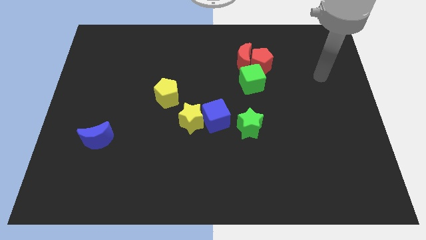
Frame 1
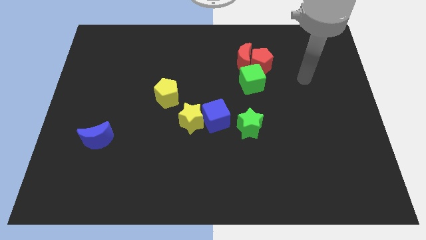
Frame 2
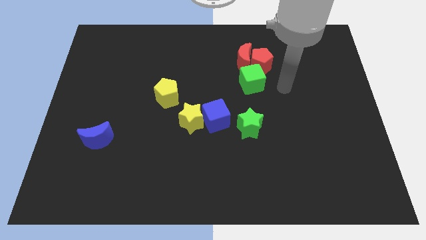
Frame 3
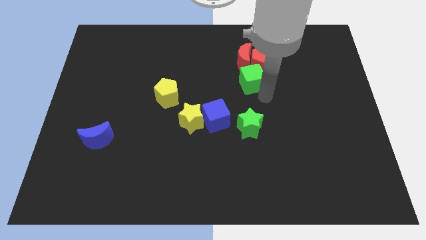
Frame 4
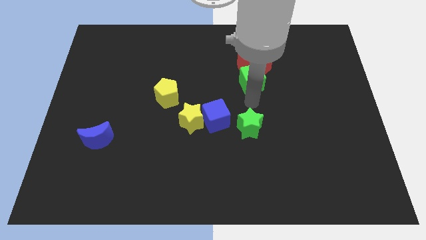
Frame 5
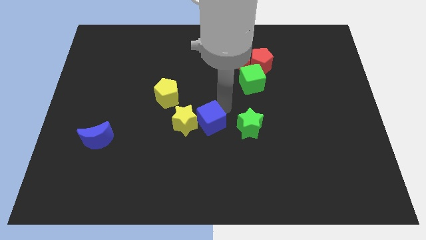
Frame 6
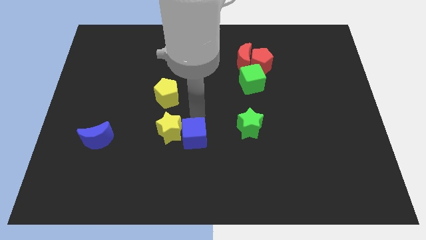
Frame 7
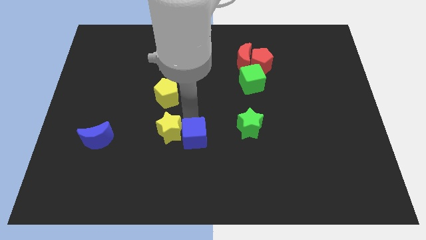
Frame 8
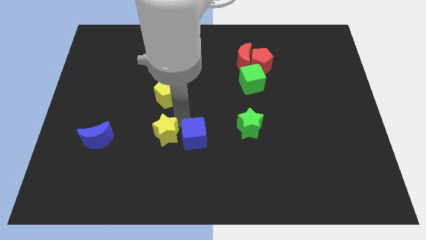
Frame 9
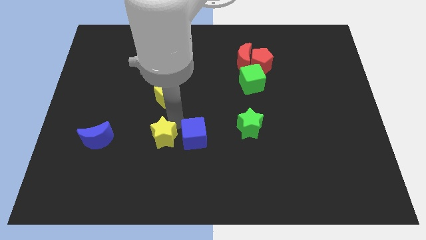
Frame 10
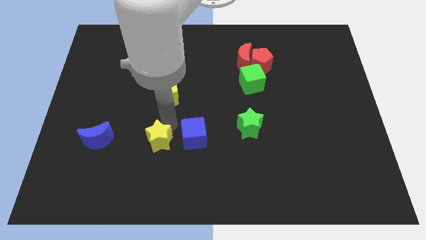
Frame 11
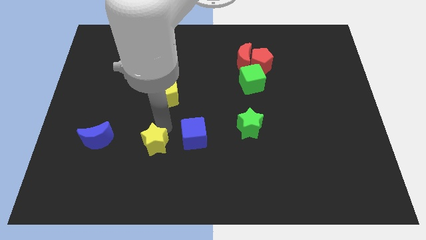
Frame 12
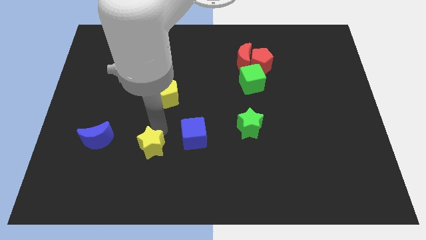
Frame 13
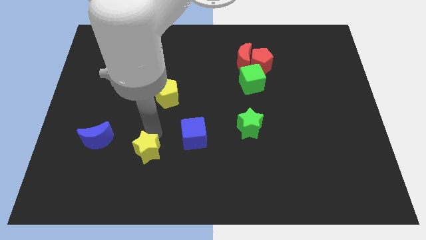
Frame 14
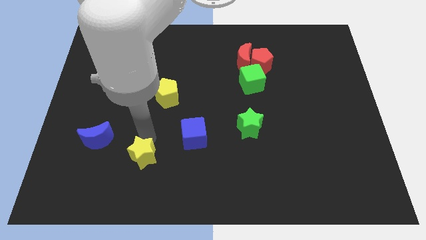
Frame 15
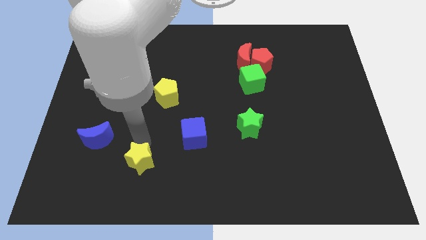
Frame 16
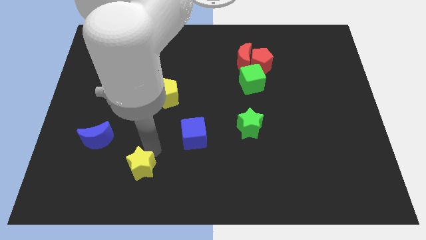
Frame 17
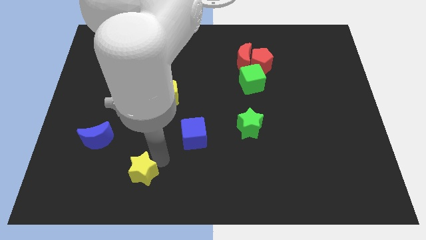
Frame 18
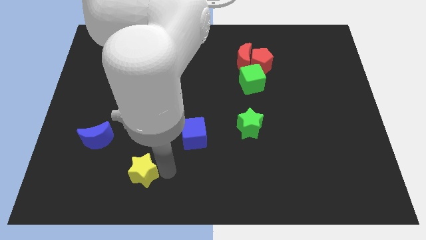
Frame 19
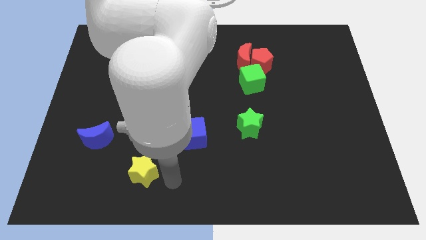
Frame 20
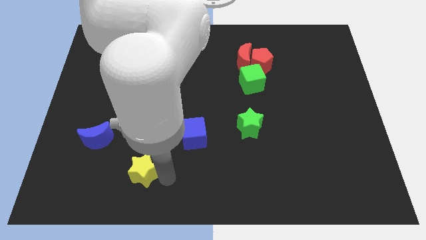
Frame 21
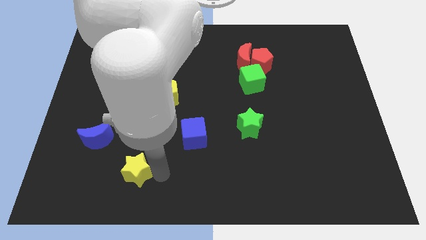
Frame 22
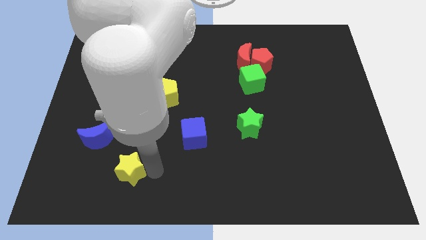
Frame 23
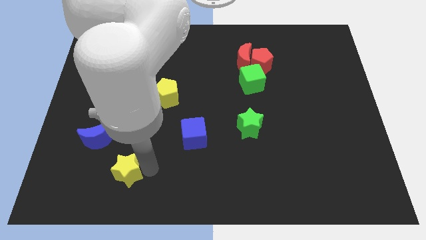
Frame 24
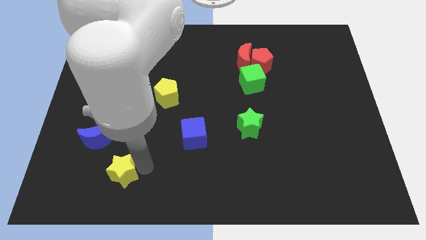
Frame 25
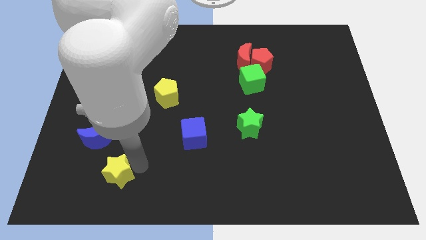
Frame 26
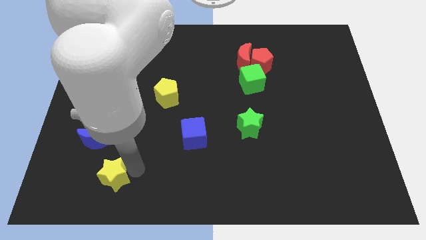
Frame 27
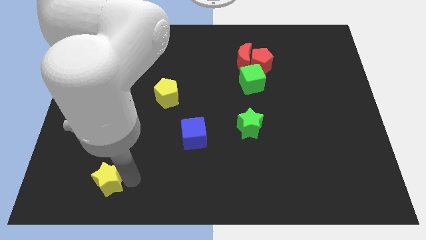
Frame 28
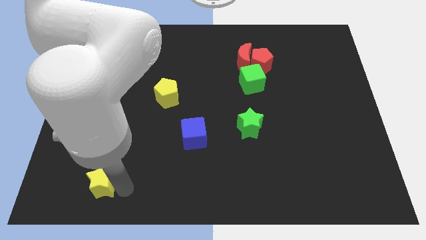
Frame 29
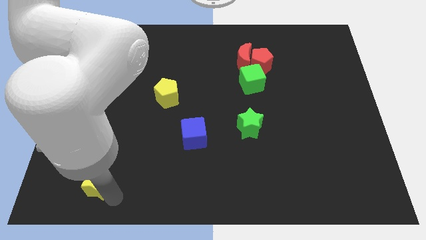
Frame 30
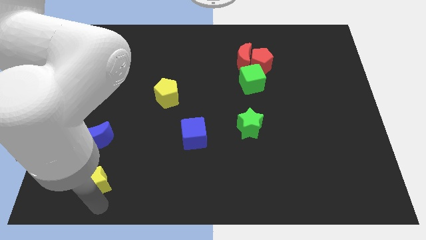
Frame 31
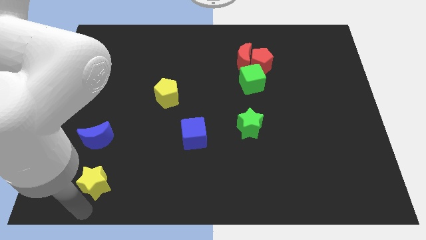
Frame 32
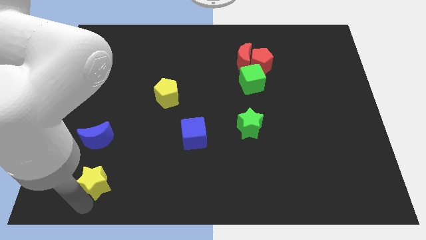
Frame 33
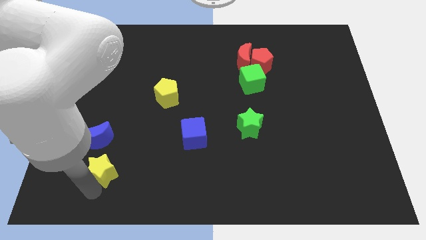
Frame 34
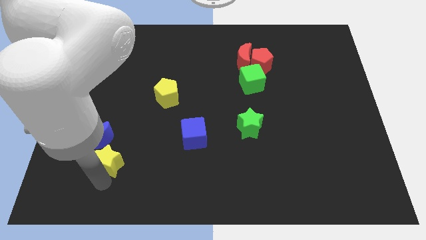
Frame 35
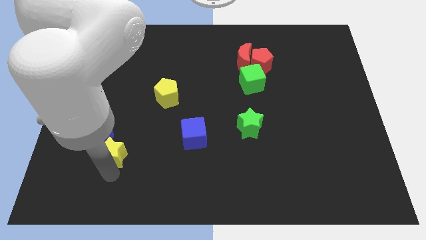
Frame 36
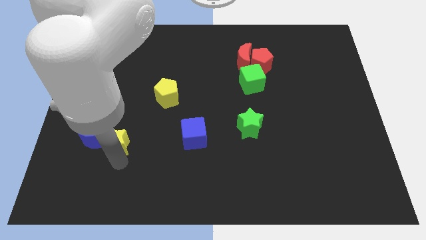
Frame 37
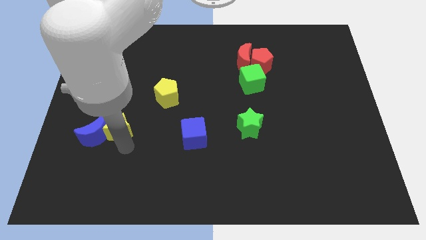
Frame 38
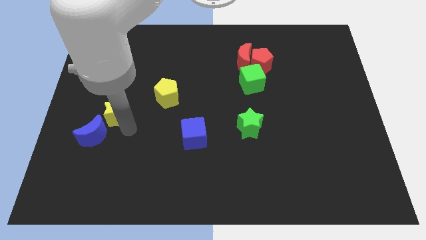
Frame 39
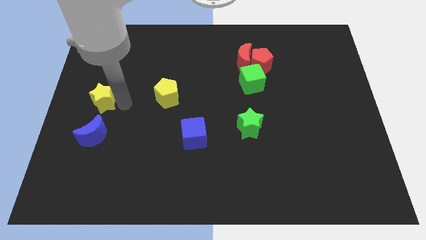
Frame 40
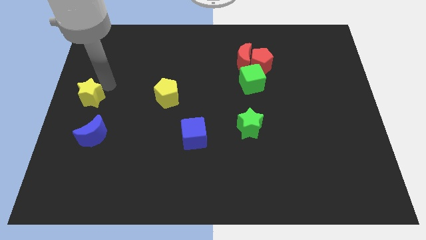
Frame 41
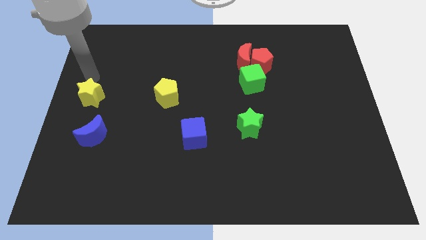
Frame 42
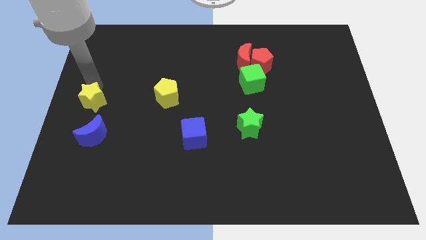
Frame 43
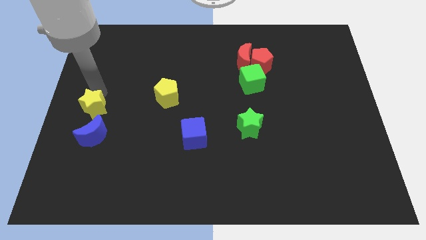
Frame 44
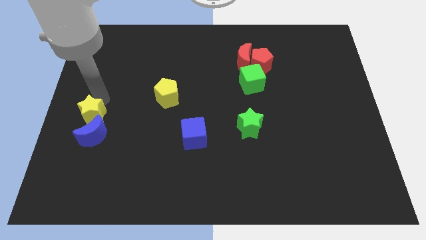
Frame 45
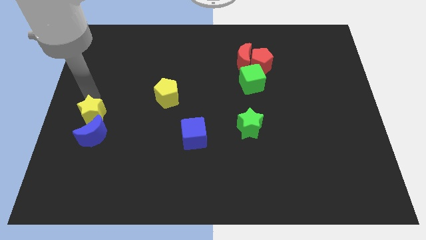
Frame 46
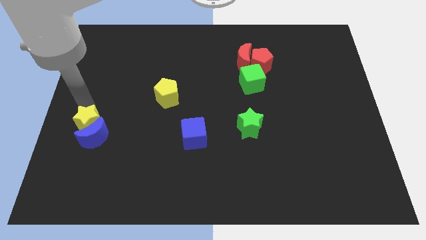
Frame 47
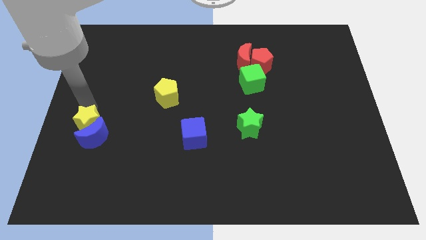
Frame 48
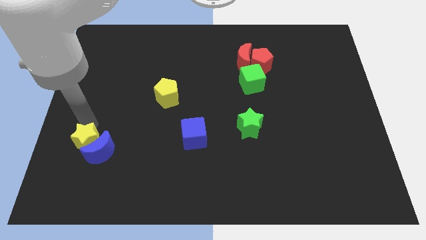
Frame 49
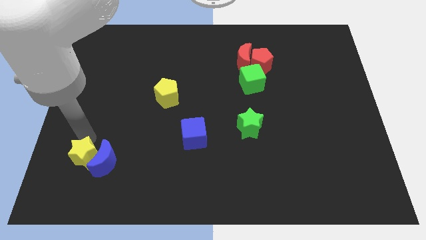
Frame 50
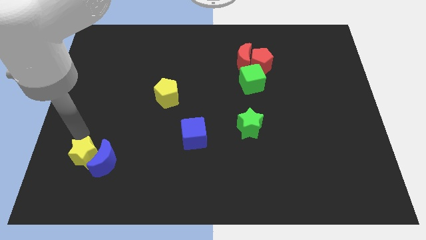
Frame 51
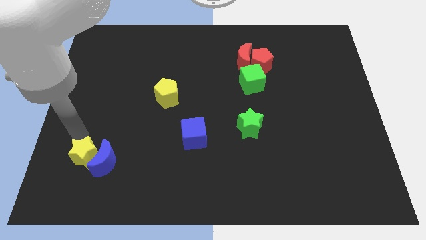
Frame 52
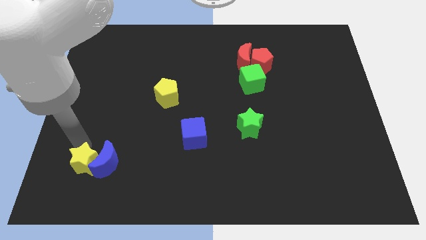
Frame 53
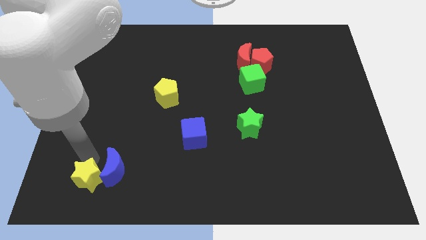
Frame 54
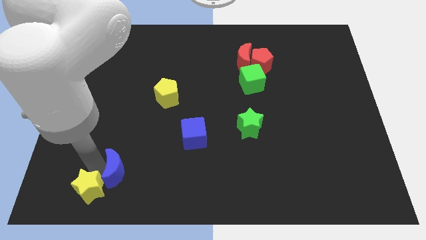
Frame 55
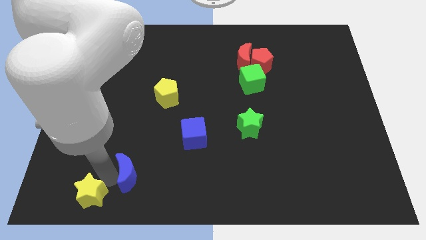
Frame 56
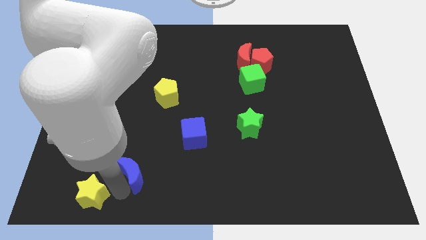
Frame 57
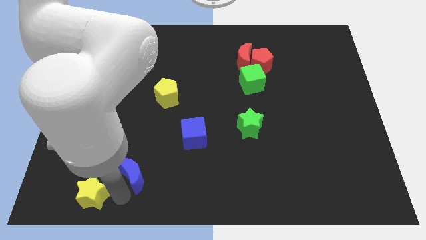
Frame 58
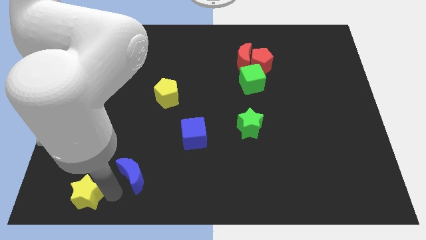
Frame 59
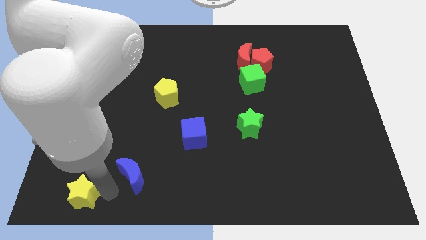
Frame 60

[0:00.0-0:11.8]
slide the yellow star to the bottom left of the board
